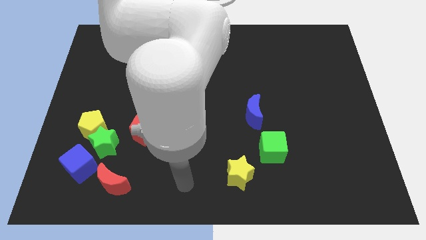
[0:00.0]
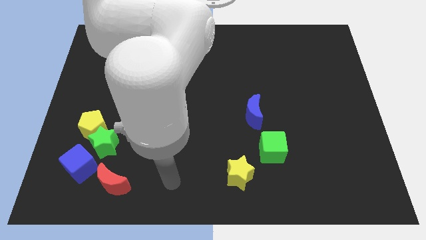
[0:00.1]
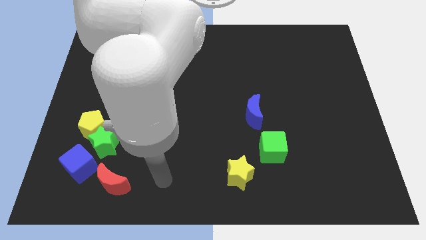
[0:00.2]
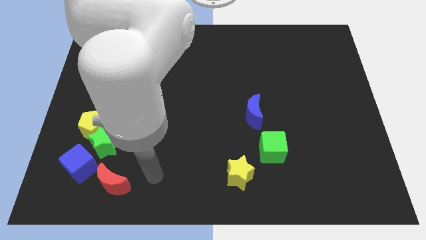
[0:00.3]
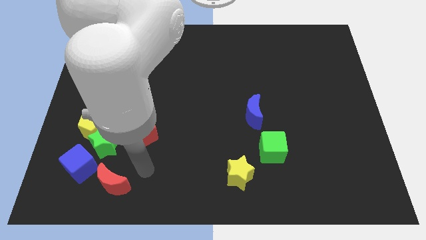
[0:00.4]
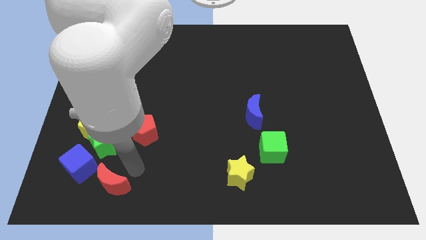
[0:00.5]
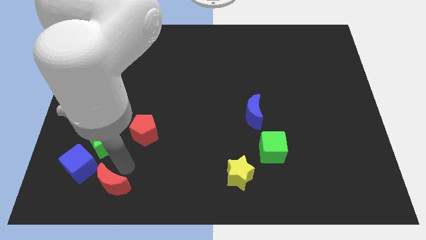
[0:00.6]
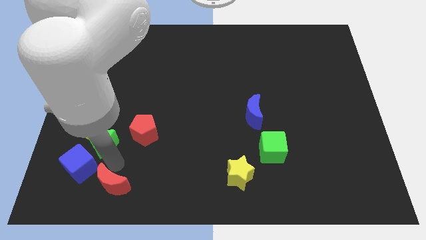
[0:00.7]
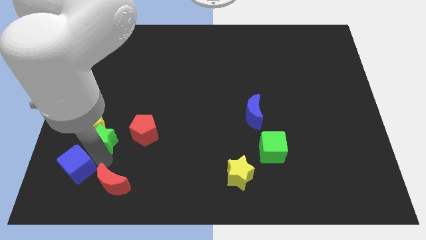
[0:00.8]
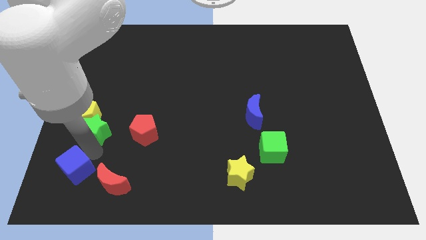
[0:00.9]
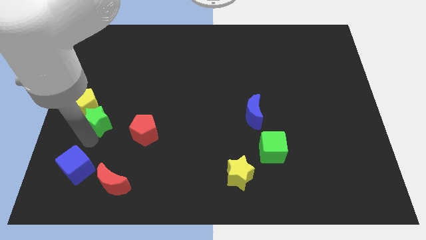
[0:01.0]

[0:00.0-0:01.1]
separate the yellow pentagon from the green star and blue cube

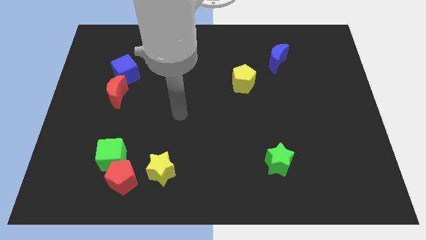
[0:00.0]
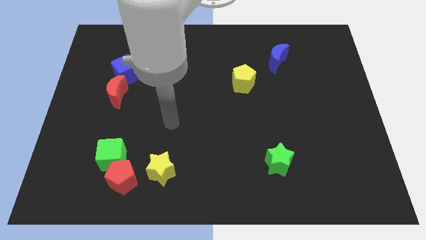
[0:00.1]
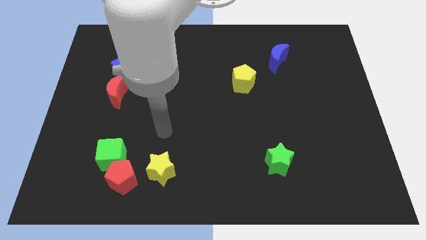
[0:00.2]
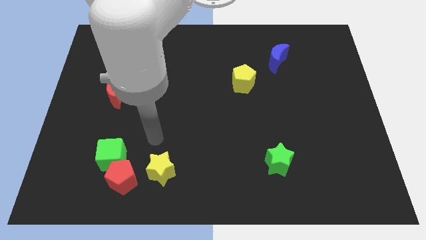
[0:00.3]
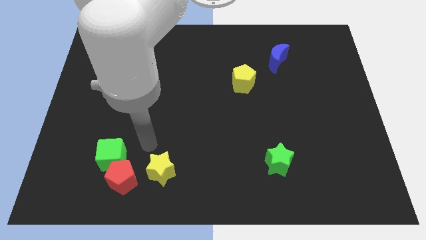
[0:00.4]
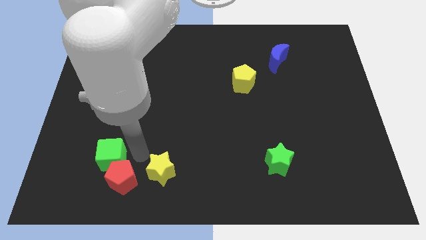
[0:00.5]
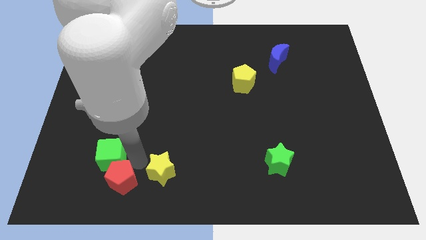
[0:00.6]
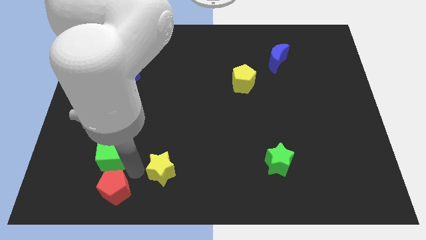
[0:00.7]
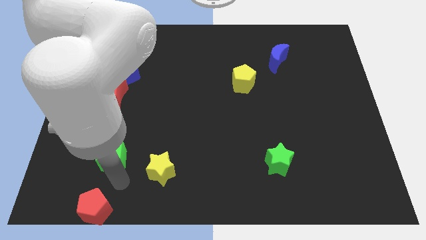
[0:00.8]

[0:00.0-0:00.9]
move the green cube away from the red pentagon

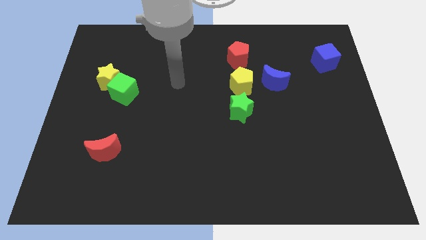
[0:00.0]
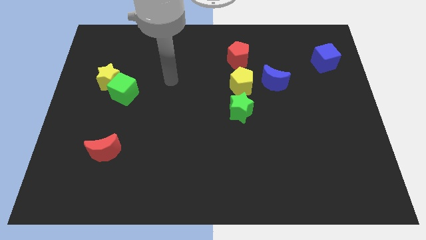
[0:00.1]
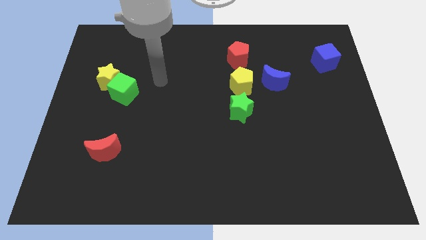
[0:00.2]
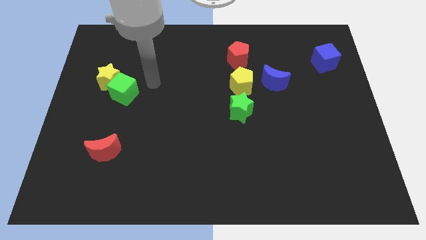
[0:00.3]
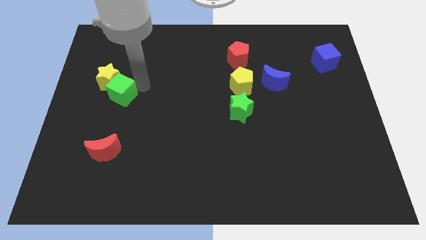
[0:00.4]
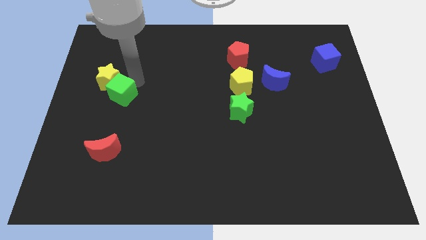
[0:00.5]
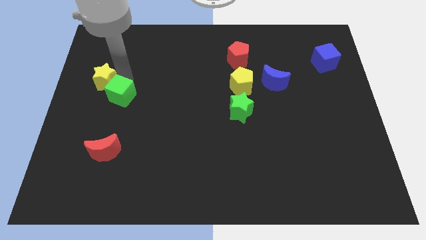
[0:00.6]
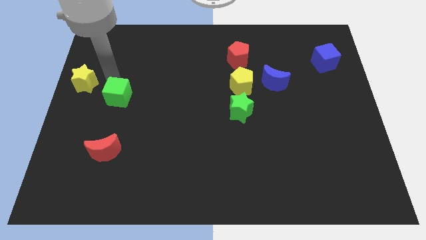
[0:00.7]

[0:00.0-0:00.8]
pull the green cube apart from the yellow star

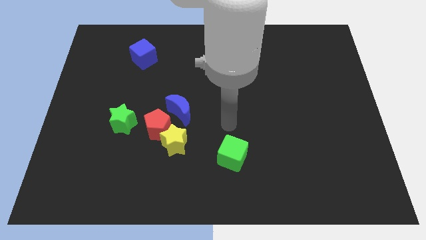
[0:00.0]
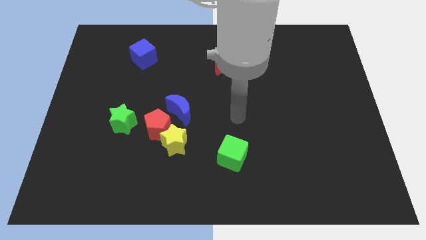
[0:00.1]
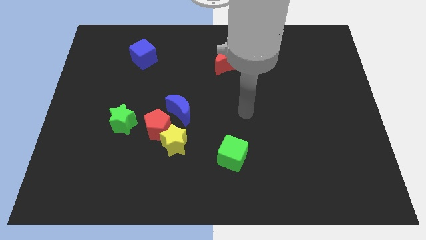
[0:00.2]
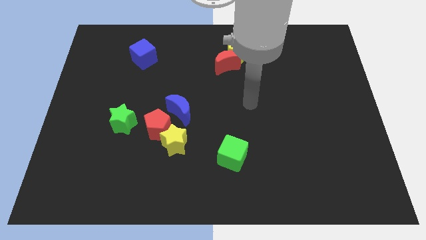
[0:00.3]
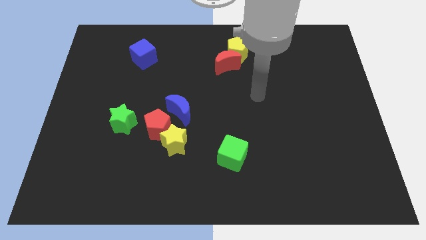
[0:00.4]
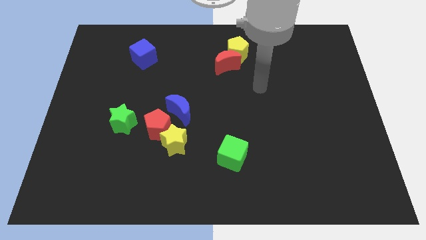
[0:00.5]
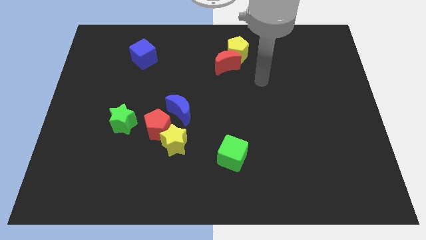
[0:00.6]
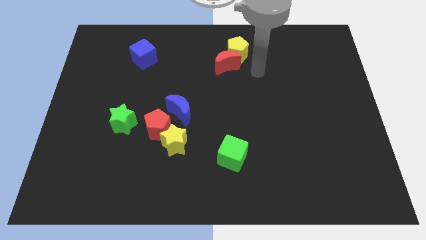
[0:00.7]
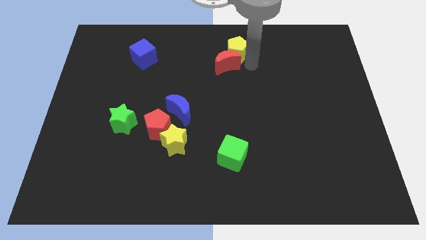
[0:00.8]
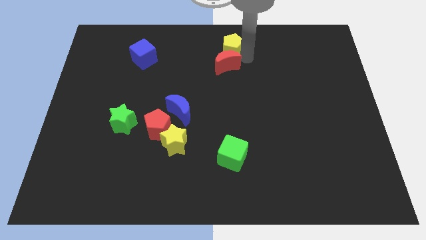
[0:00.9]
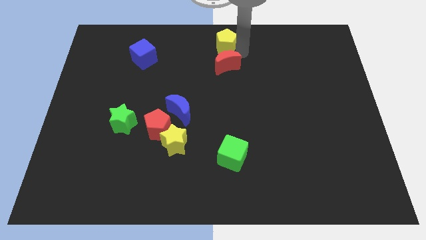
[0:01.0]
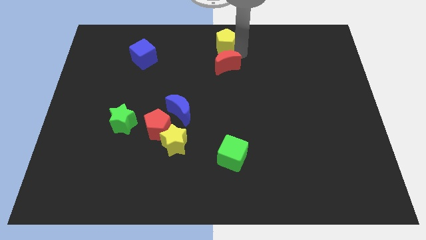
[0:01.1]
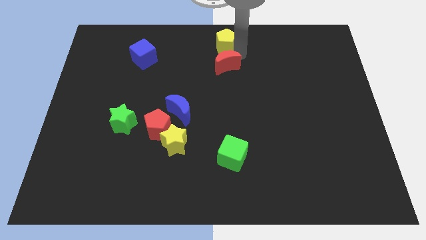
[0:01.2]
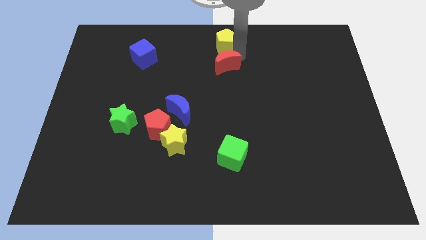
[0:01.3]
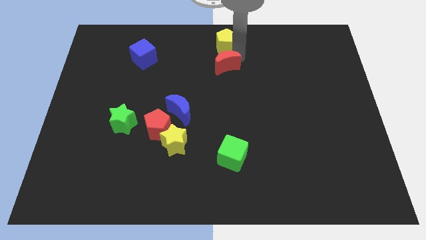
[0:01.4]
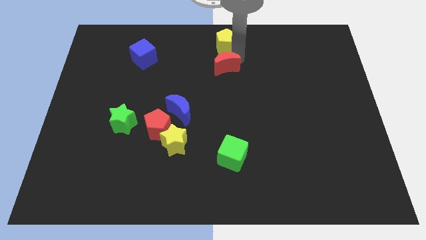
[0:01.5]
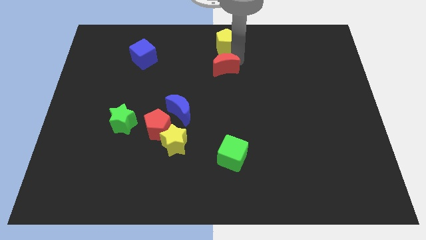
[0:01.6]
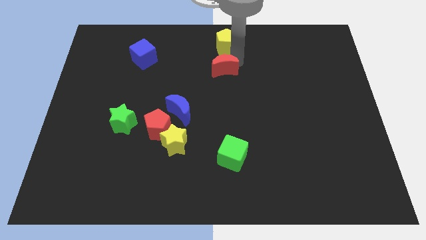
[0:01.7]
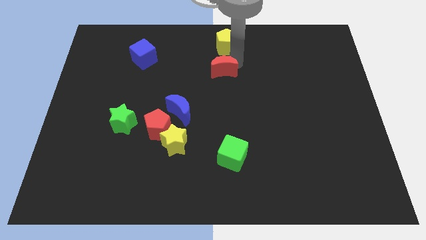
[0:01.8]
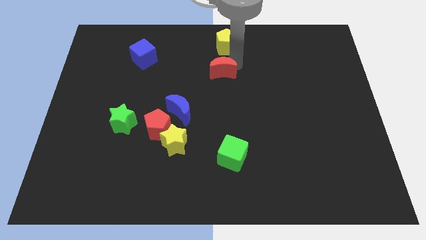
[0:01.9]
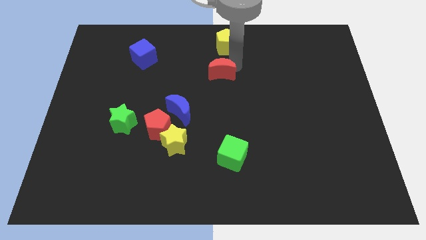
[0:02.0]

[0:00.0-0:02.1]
separate the red moon from the yellow pentagon

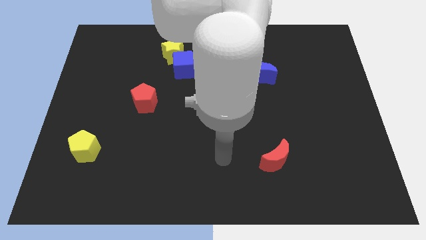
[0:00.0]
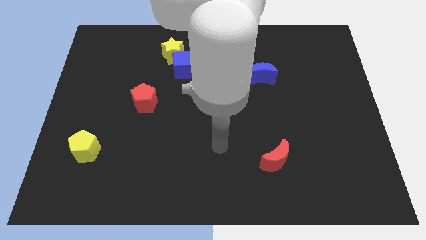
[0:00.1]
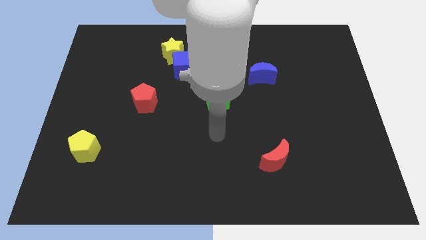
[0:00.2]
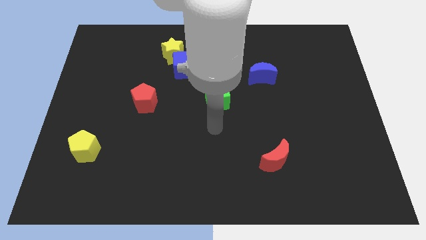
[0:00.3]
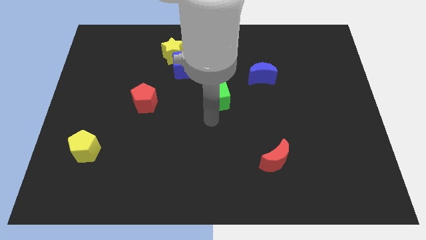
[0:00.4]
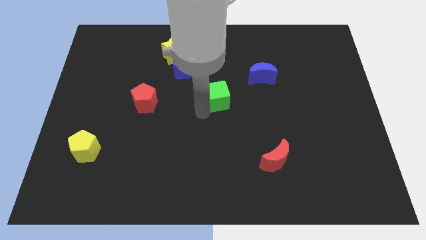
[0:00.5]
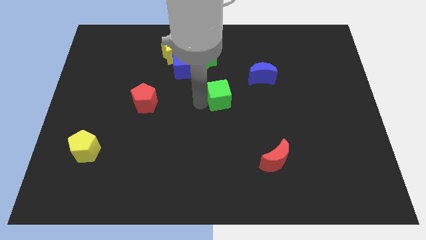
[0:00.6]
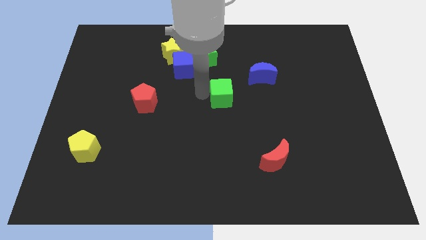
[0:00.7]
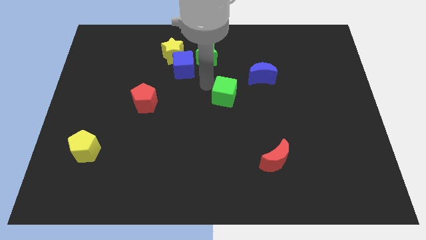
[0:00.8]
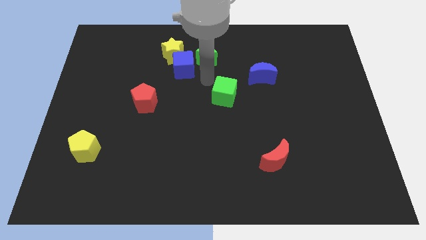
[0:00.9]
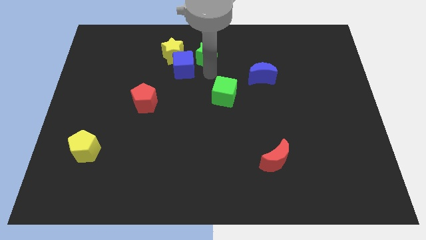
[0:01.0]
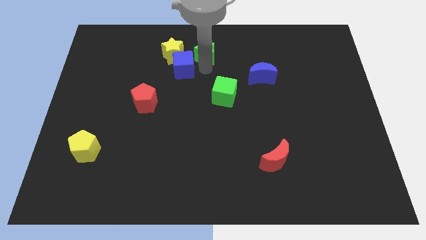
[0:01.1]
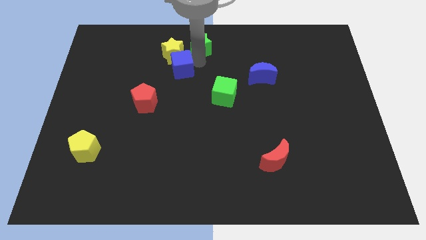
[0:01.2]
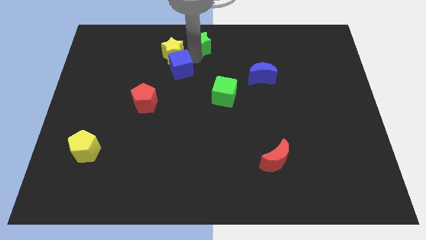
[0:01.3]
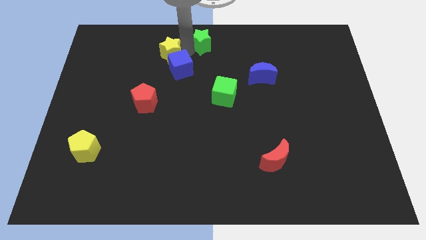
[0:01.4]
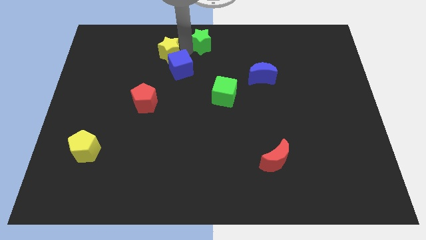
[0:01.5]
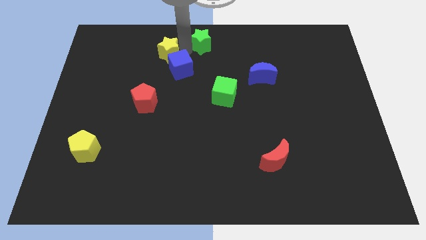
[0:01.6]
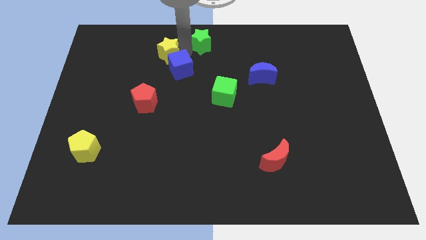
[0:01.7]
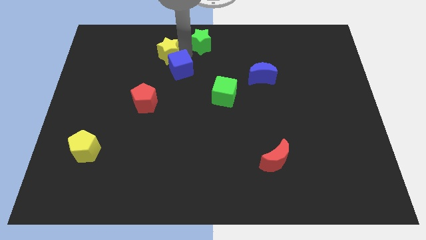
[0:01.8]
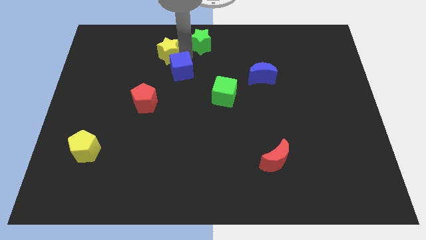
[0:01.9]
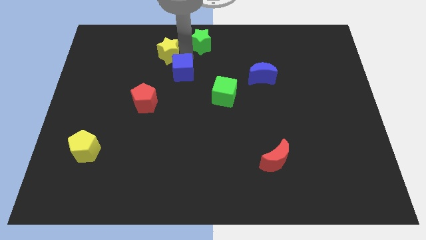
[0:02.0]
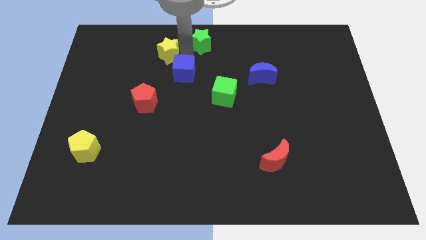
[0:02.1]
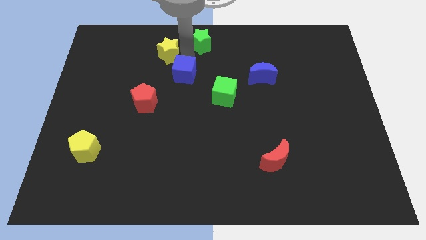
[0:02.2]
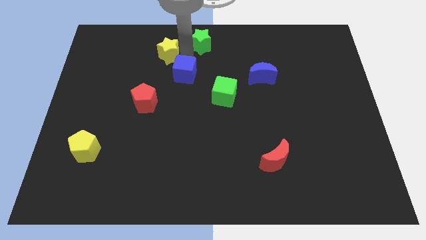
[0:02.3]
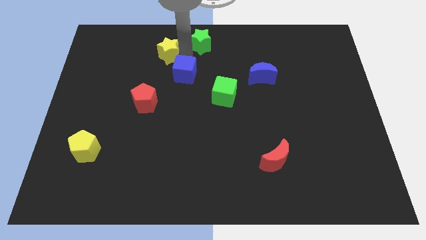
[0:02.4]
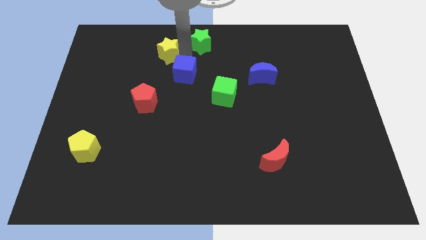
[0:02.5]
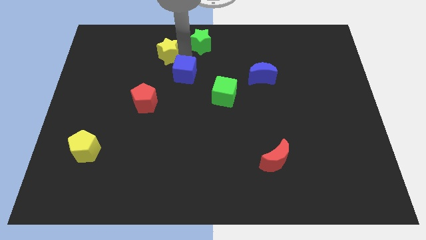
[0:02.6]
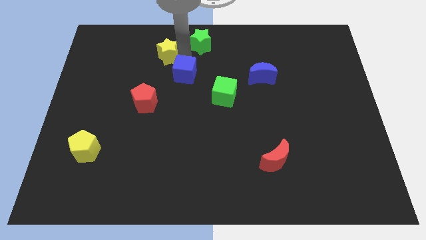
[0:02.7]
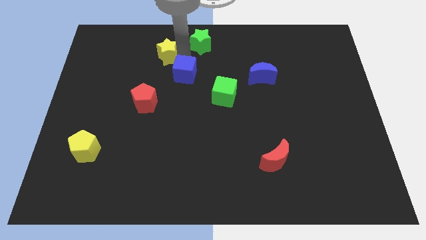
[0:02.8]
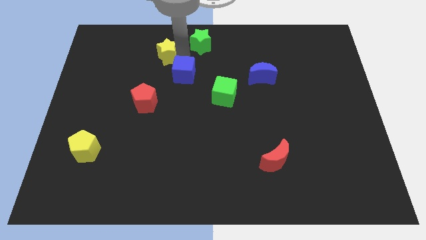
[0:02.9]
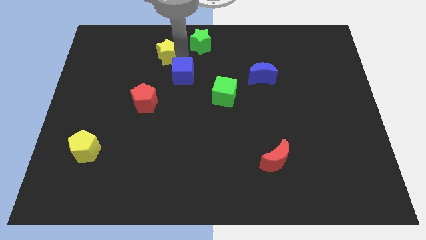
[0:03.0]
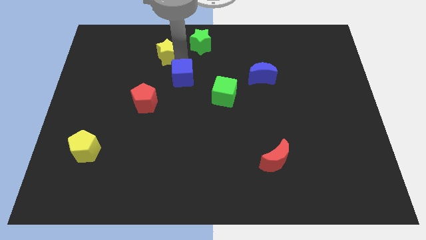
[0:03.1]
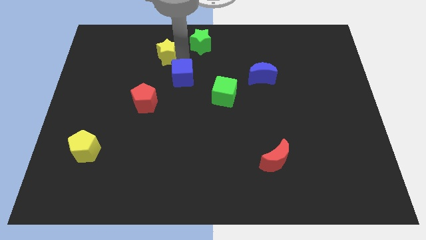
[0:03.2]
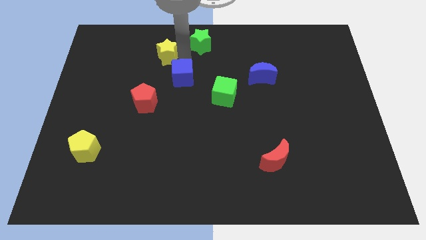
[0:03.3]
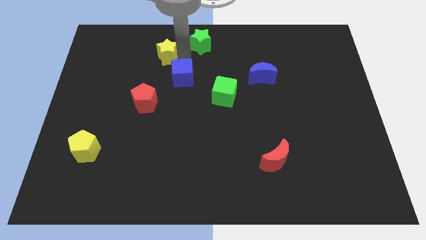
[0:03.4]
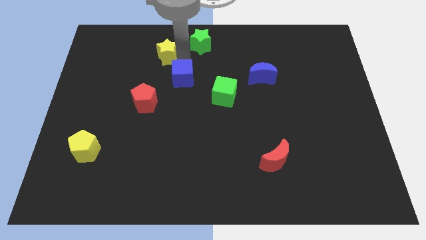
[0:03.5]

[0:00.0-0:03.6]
move the blue cube away from the yellow star and green star

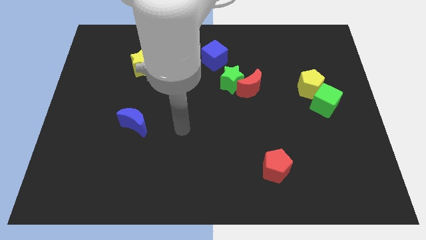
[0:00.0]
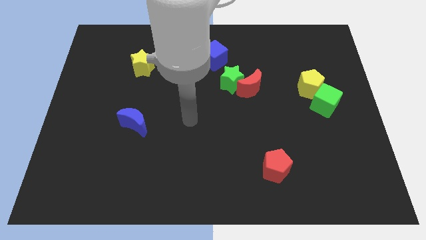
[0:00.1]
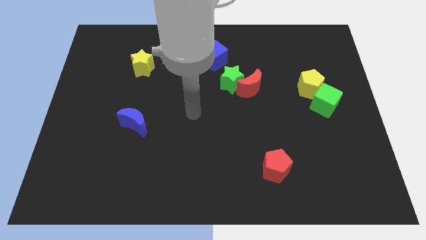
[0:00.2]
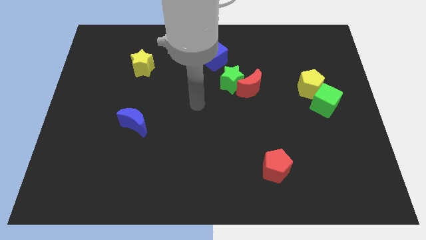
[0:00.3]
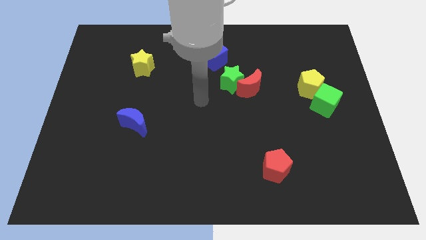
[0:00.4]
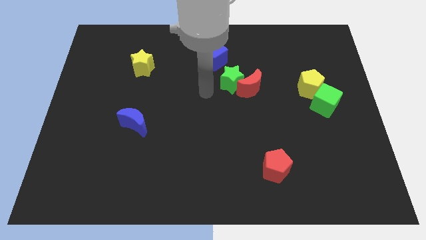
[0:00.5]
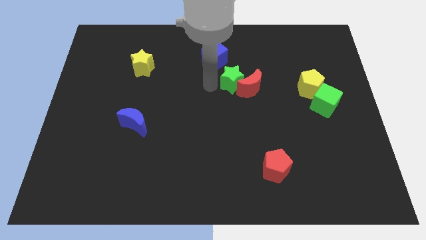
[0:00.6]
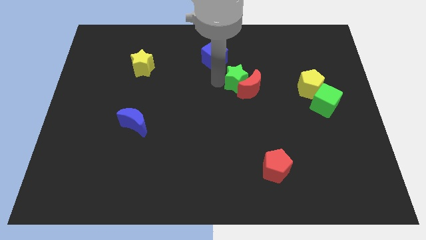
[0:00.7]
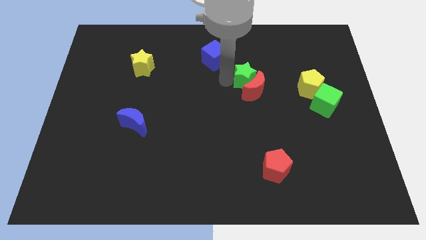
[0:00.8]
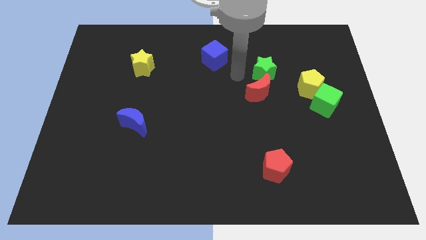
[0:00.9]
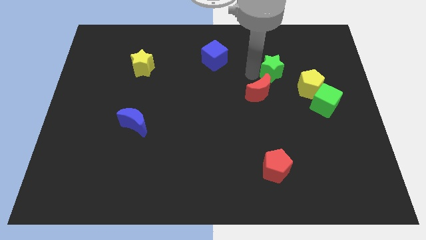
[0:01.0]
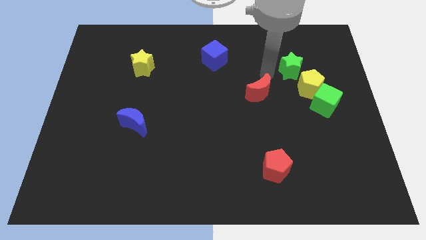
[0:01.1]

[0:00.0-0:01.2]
pull the red moon apart from the green star
